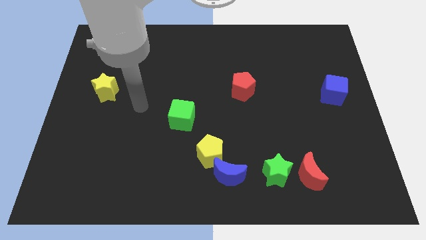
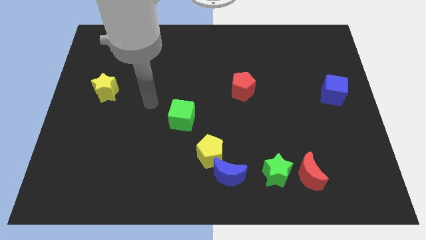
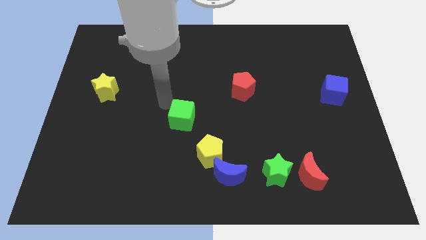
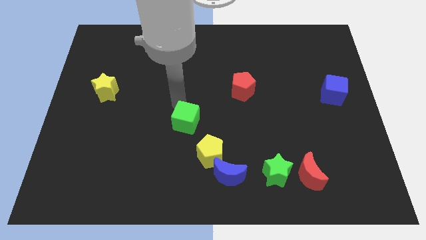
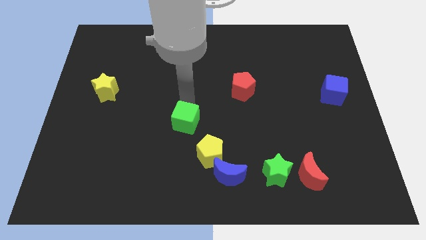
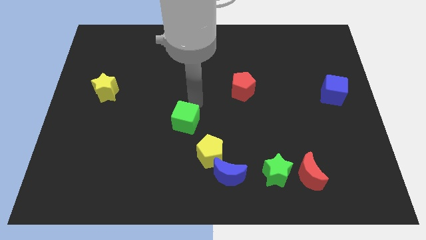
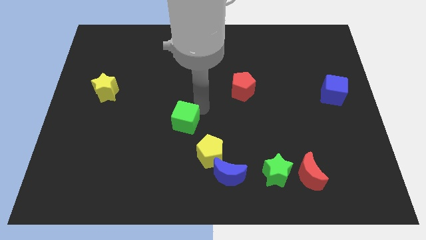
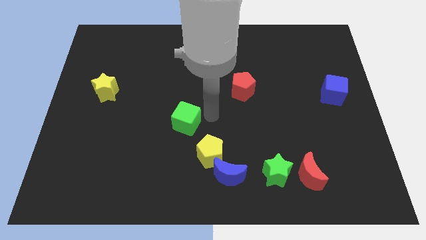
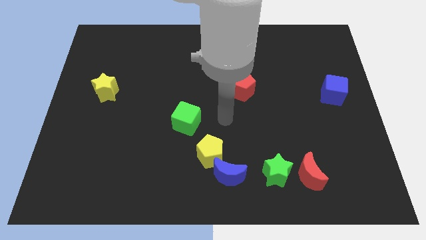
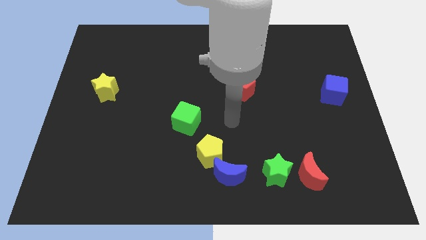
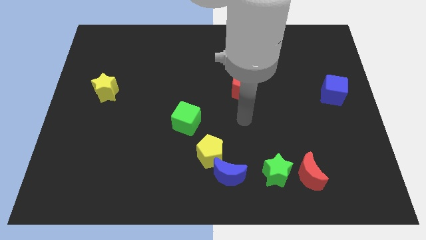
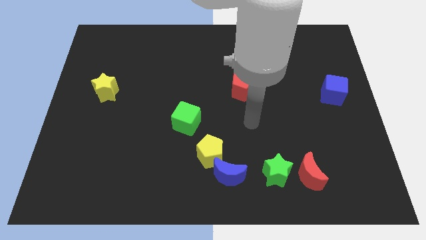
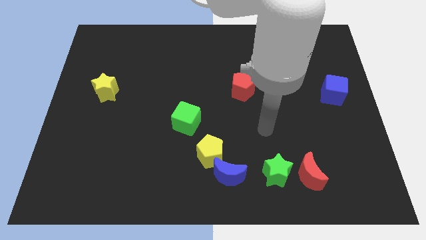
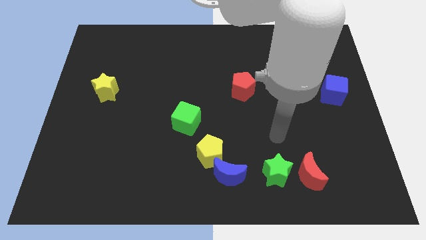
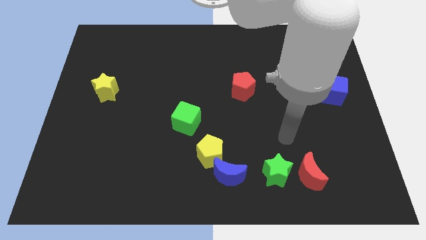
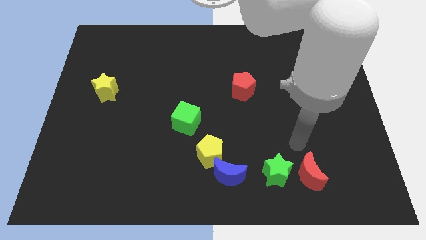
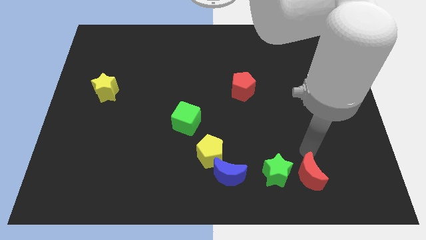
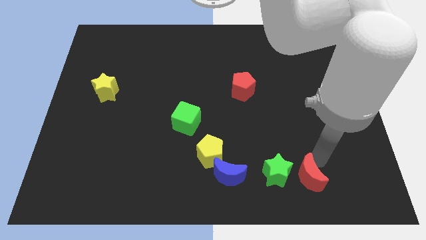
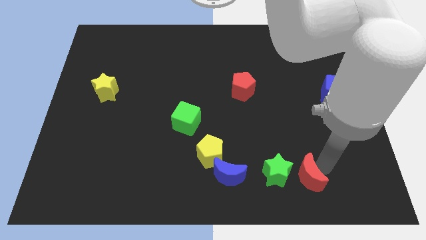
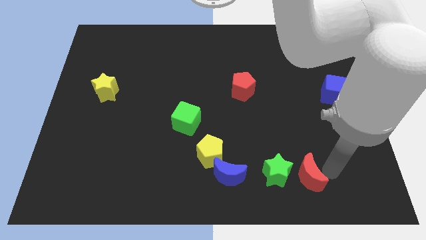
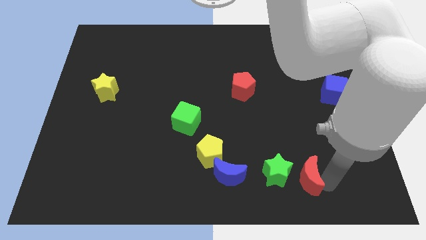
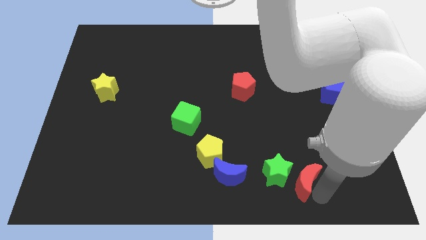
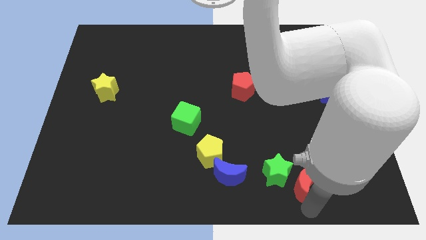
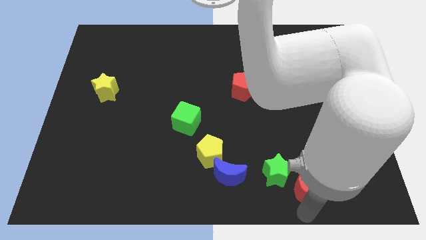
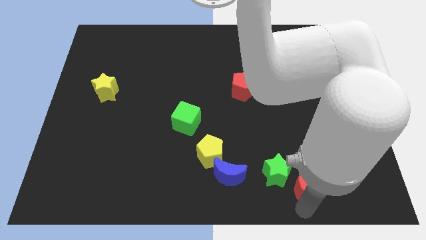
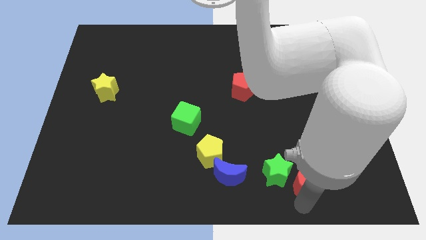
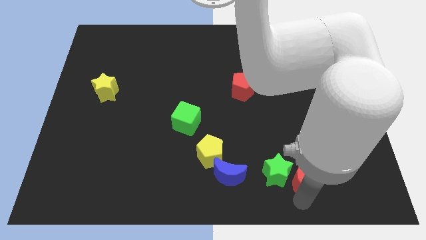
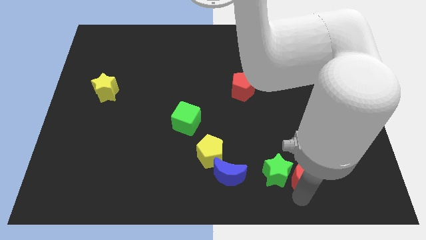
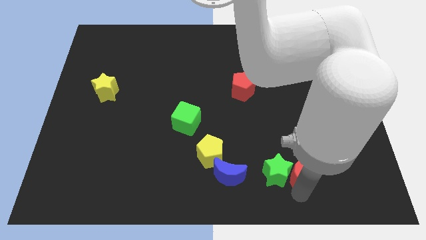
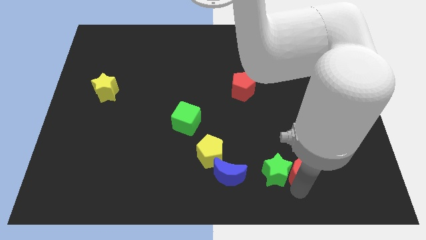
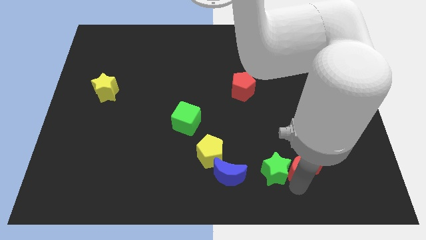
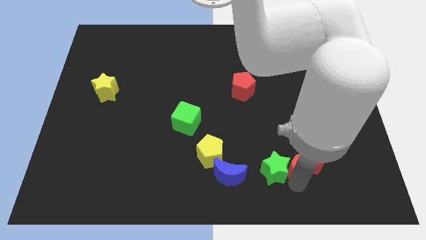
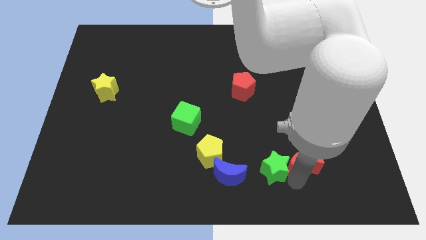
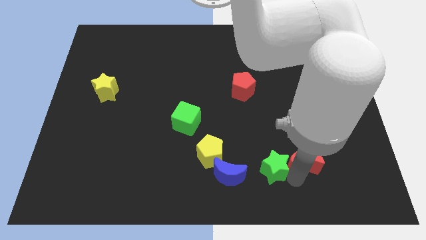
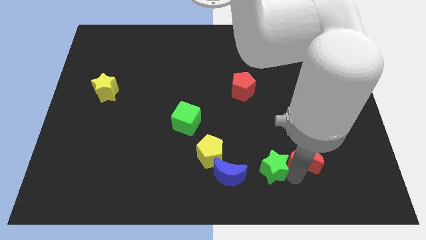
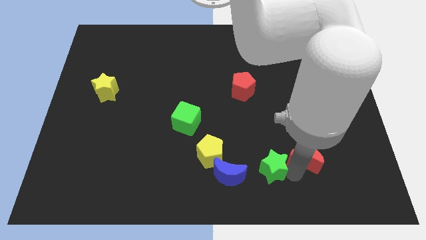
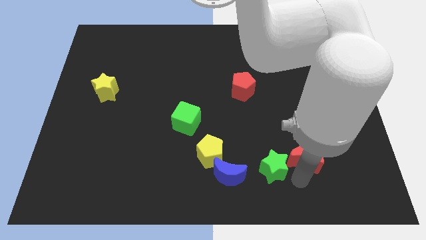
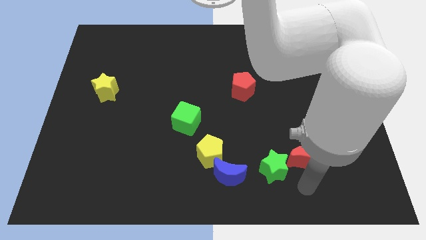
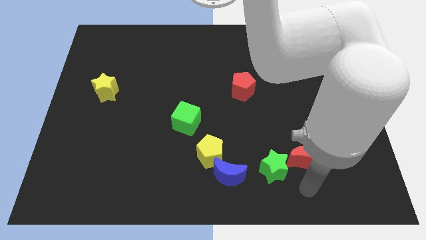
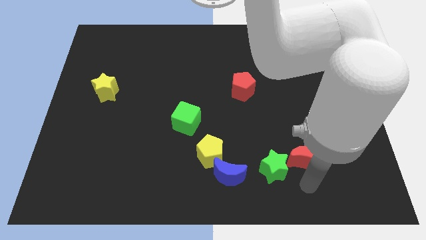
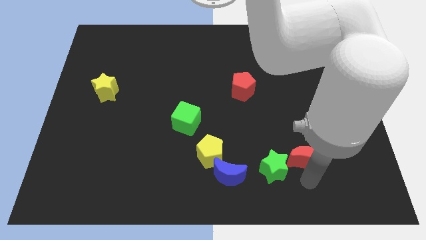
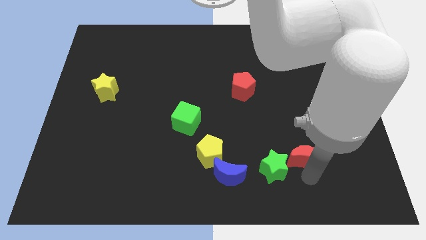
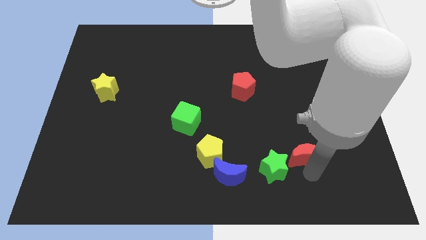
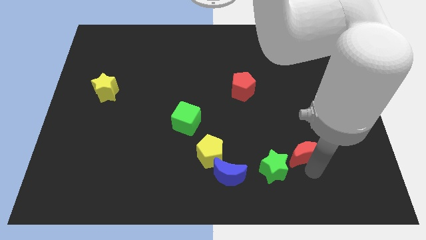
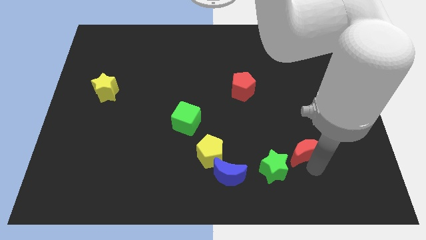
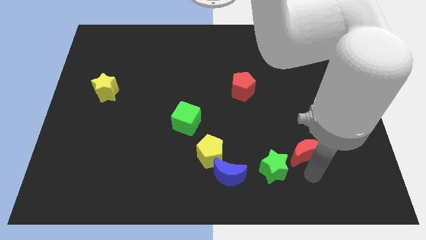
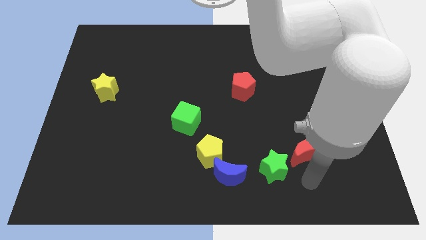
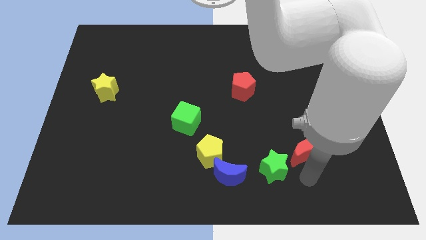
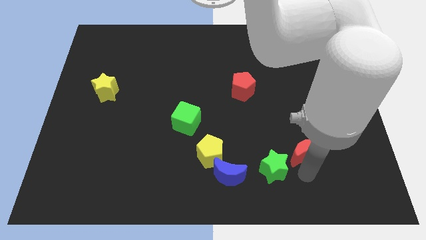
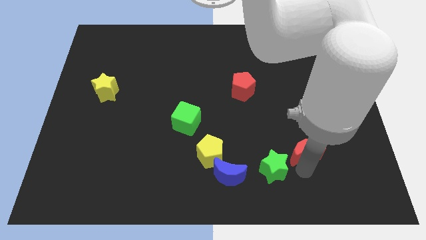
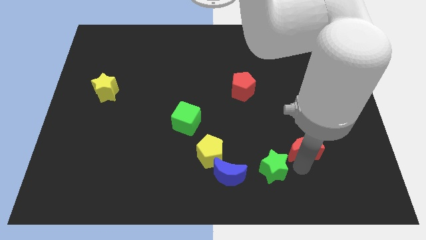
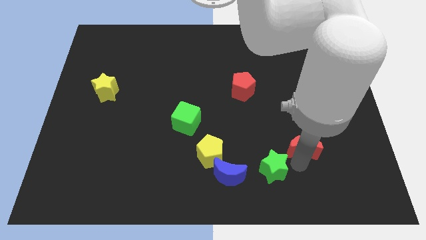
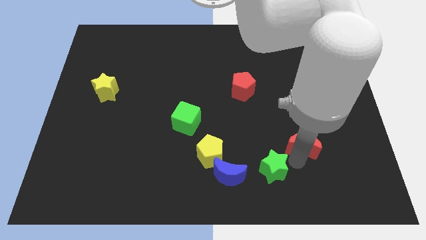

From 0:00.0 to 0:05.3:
slightly slide the red moon up

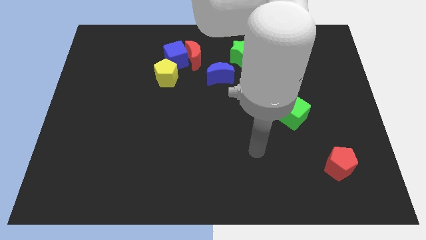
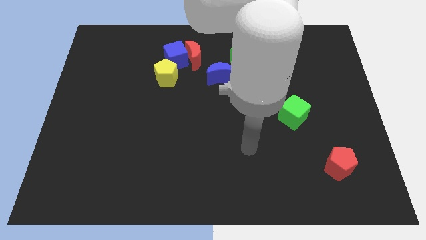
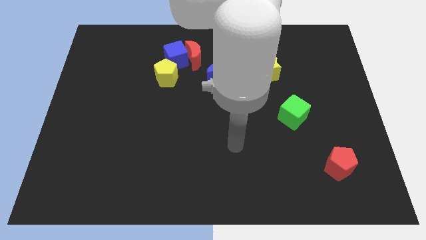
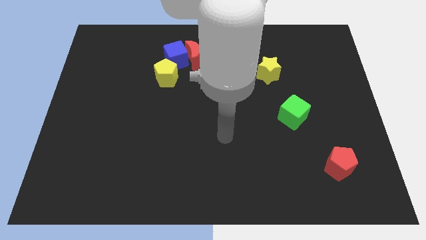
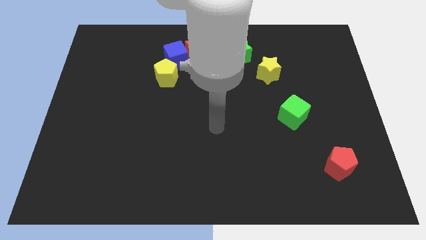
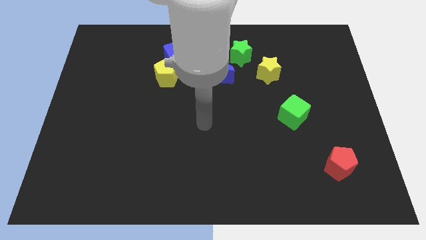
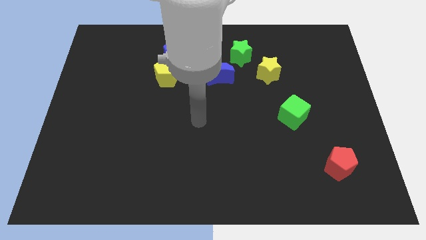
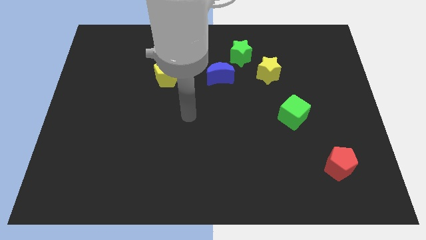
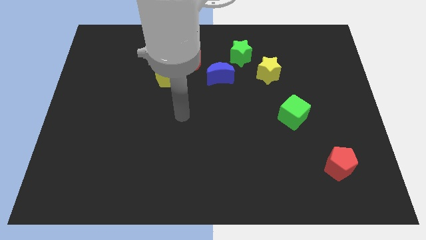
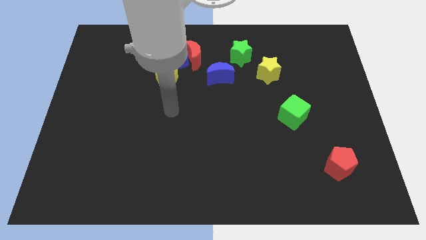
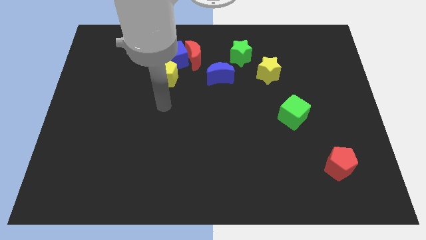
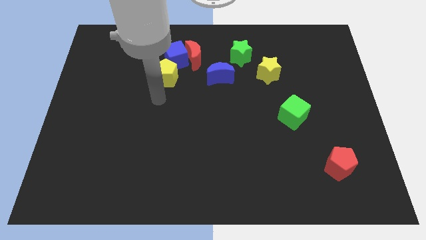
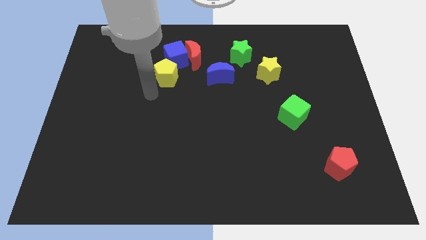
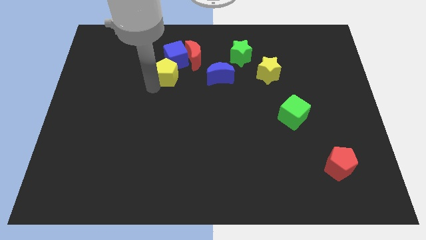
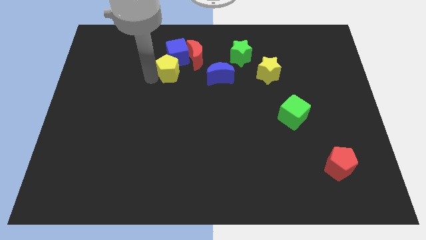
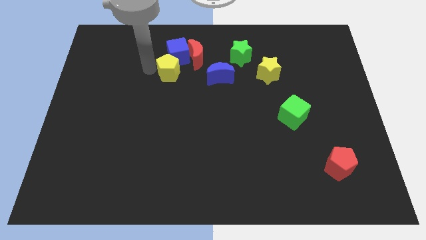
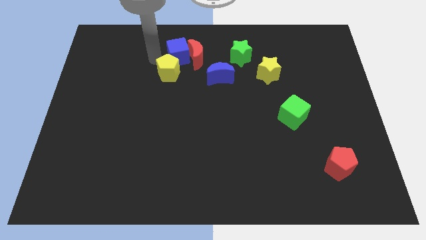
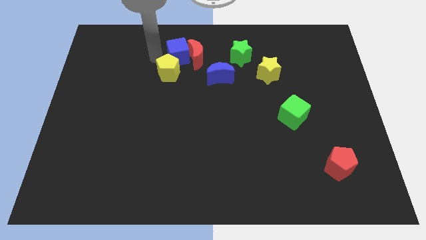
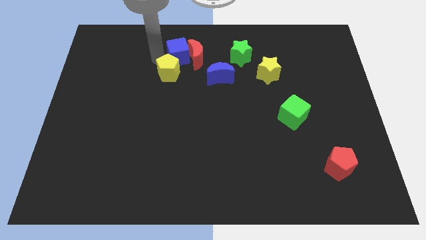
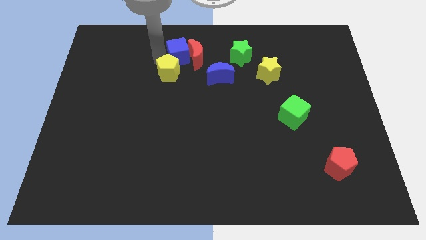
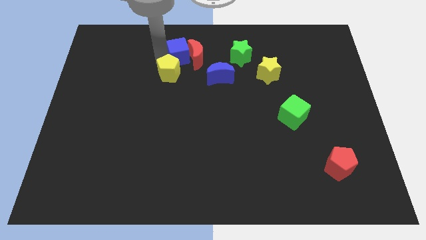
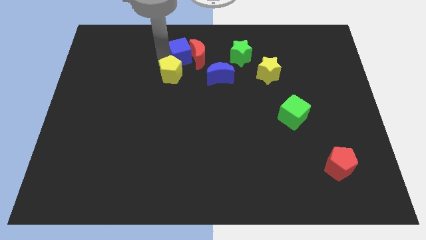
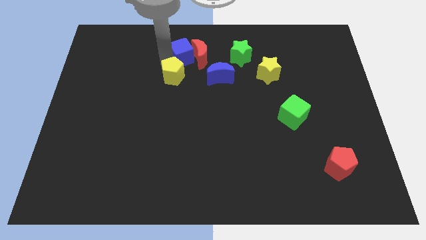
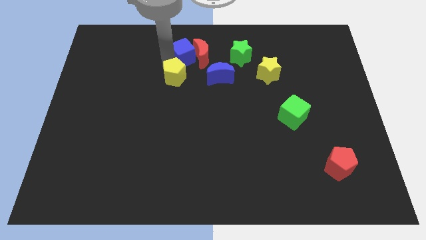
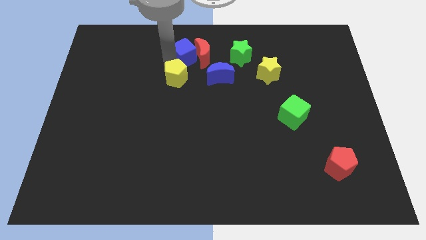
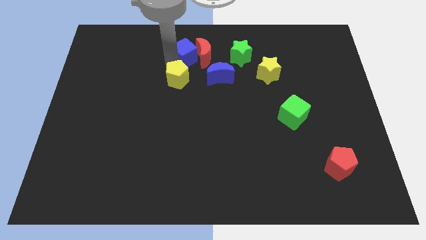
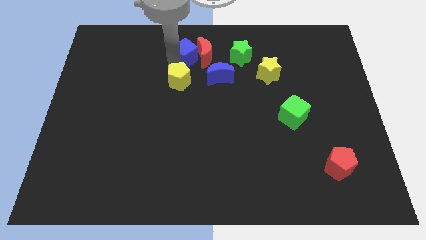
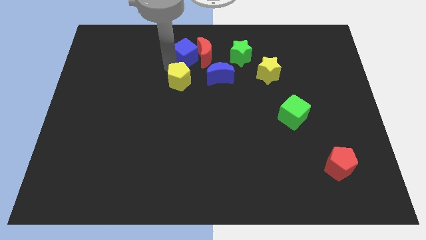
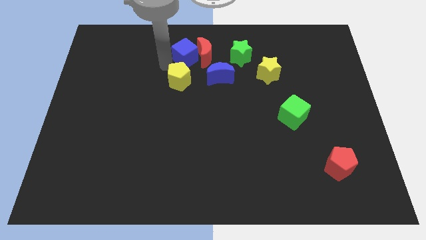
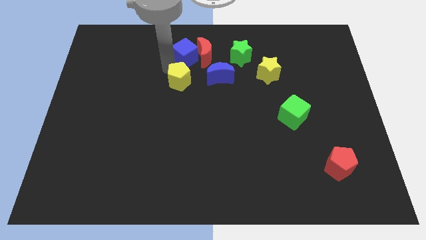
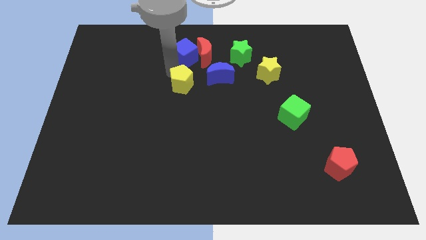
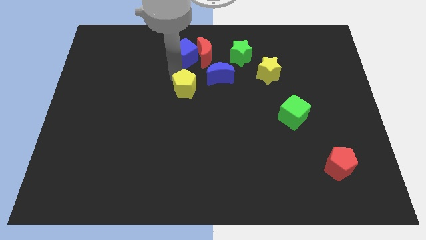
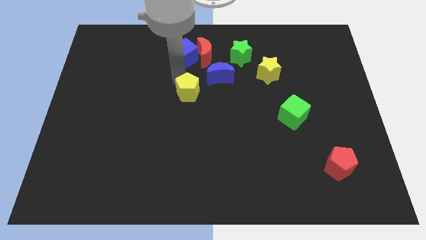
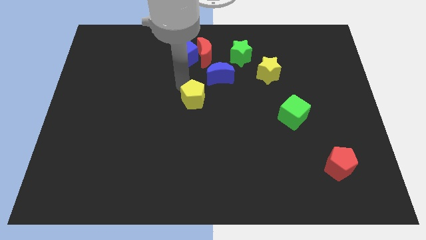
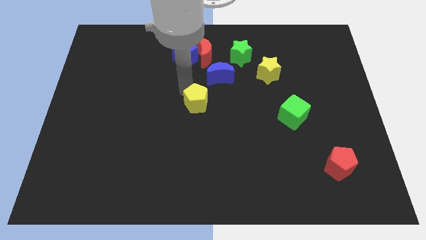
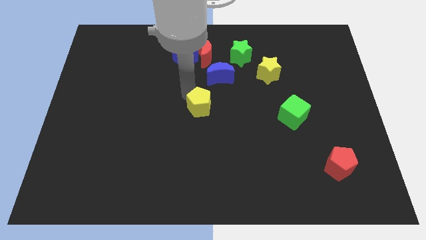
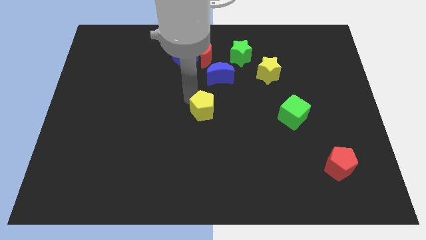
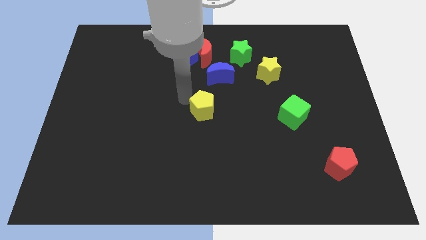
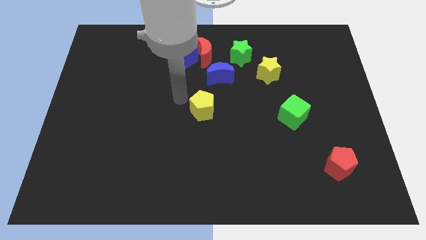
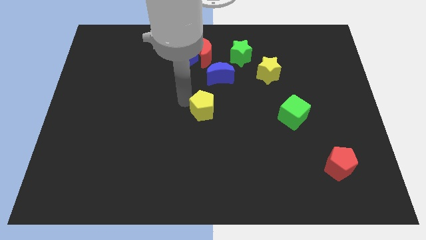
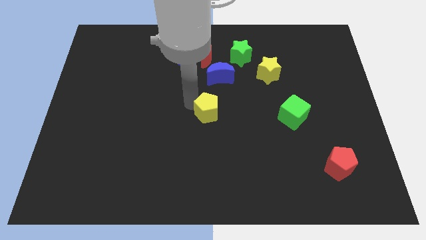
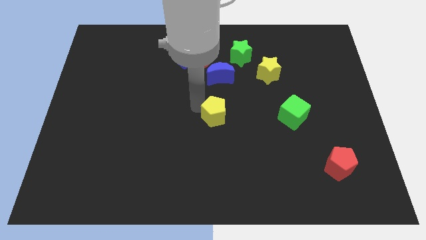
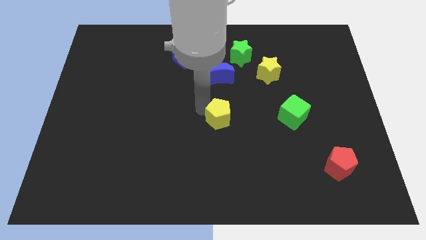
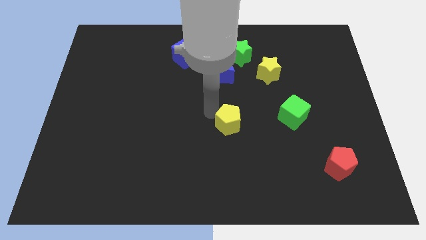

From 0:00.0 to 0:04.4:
move the yellow pentagon down and right
